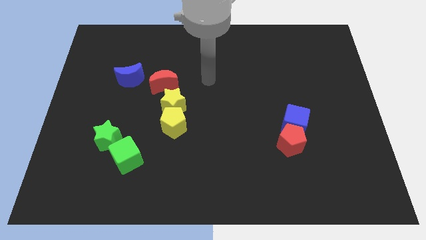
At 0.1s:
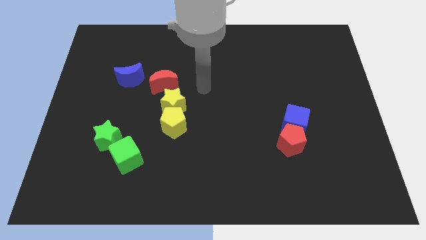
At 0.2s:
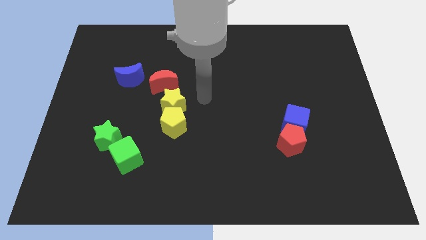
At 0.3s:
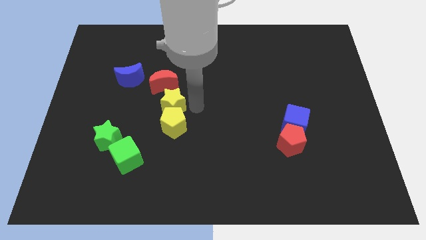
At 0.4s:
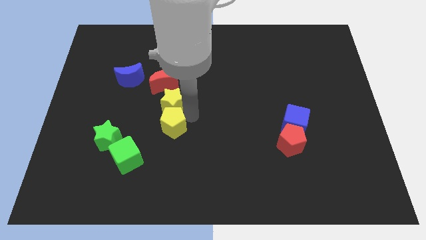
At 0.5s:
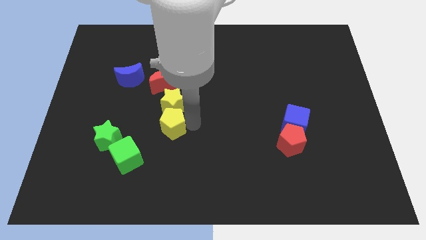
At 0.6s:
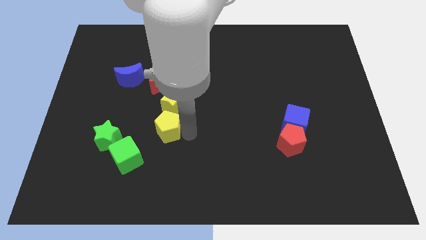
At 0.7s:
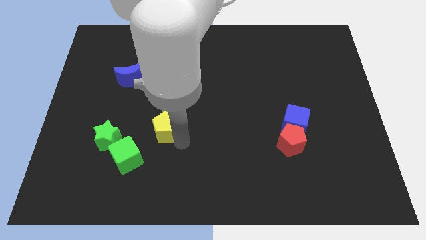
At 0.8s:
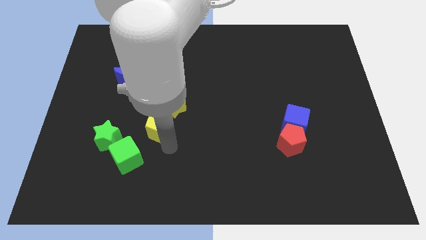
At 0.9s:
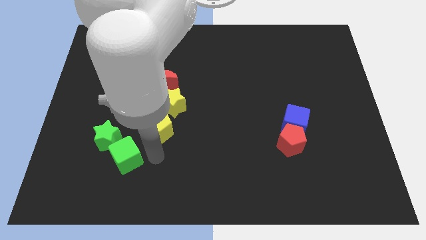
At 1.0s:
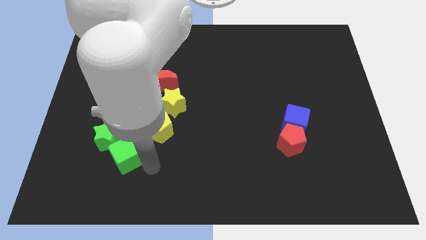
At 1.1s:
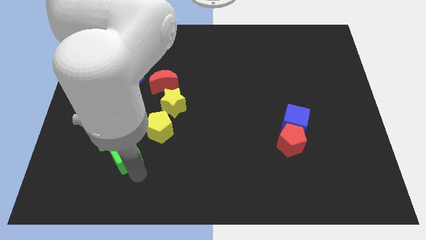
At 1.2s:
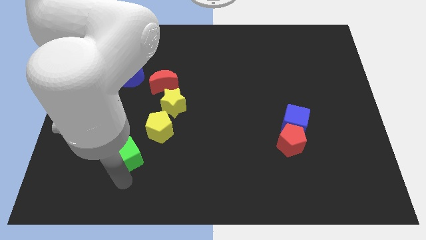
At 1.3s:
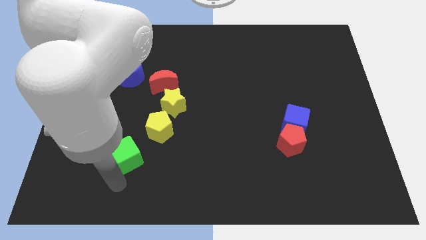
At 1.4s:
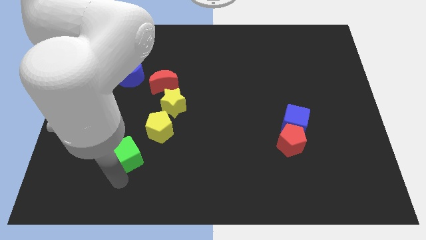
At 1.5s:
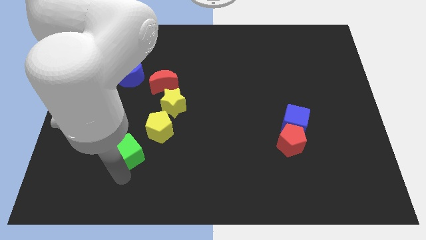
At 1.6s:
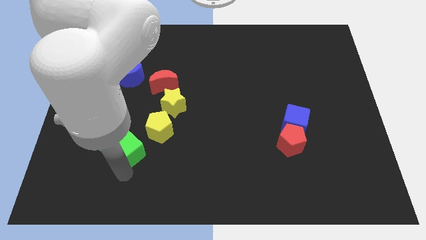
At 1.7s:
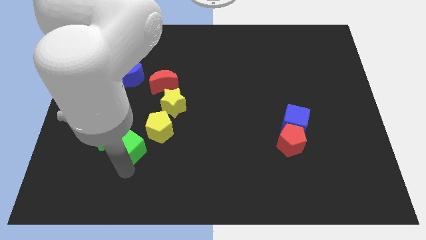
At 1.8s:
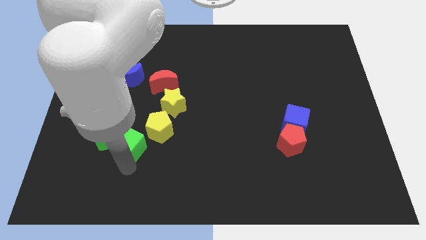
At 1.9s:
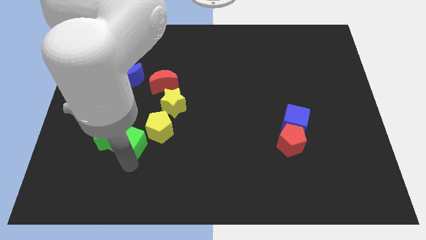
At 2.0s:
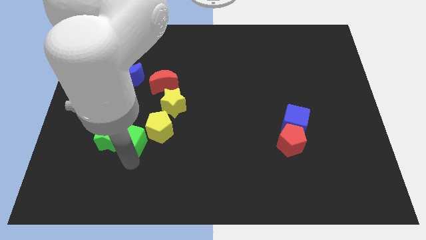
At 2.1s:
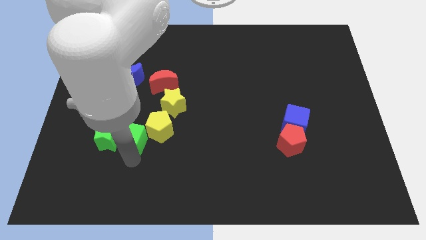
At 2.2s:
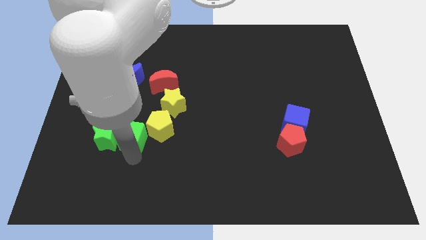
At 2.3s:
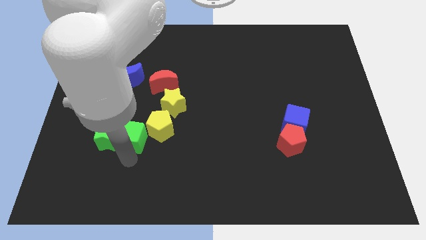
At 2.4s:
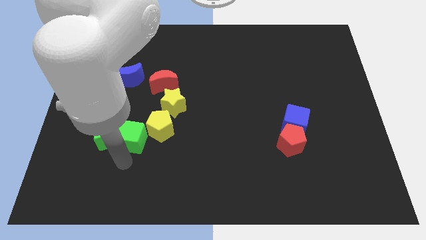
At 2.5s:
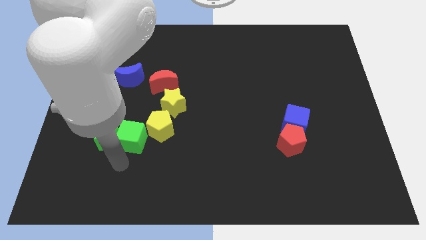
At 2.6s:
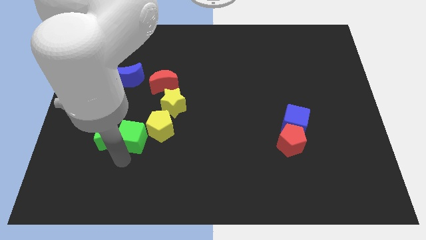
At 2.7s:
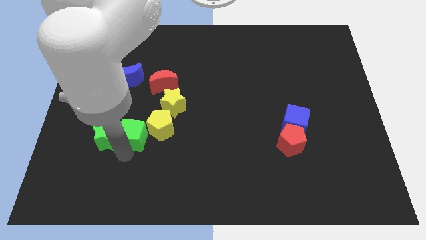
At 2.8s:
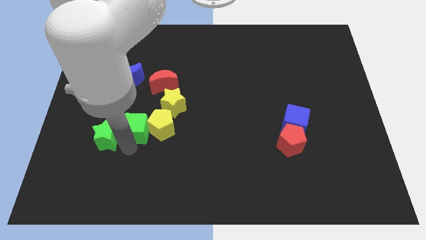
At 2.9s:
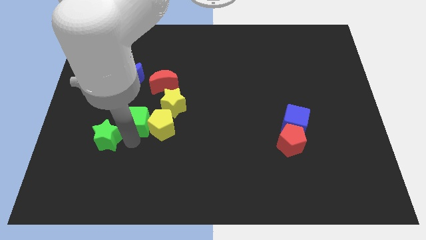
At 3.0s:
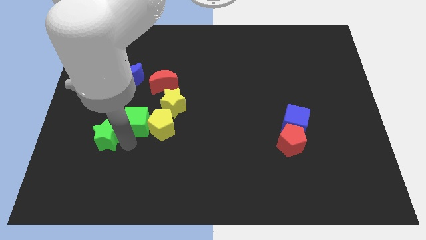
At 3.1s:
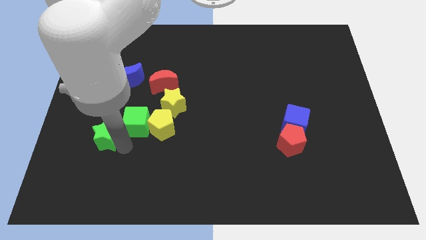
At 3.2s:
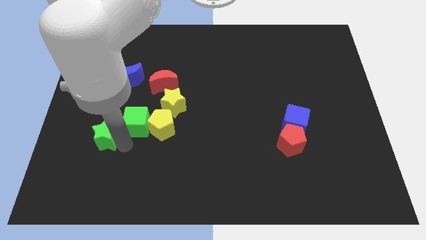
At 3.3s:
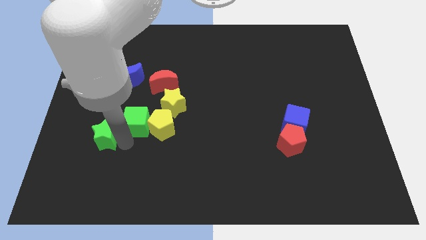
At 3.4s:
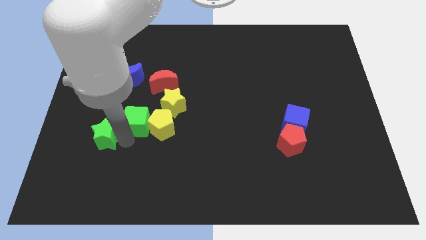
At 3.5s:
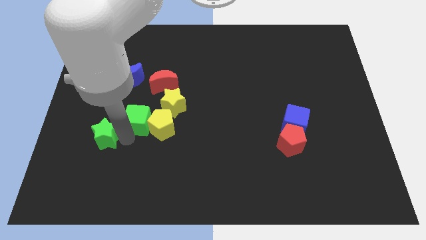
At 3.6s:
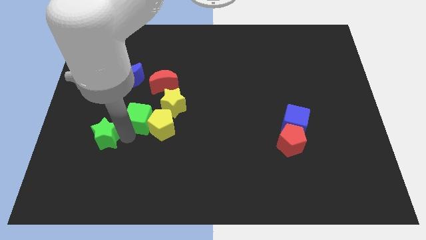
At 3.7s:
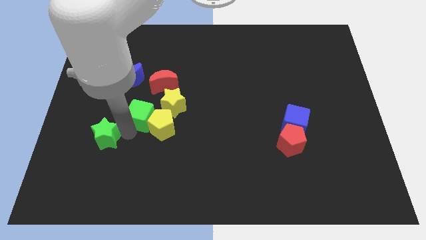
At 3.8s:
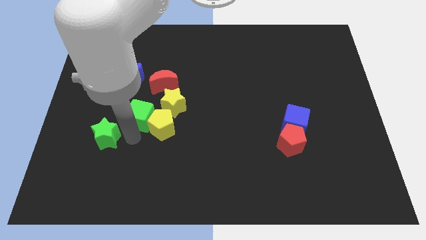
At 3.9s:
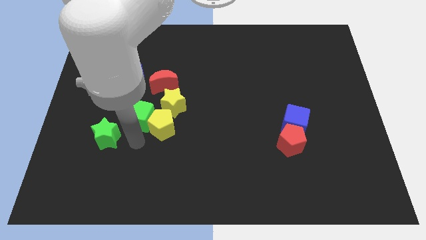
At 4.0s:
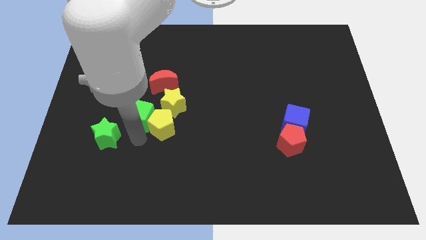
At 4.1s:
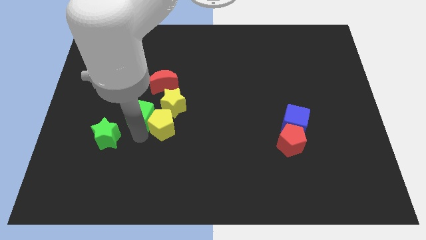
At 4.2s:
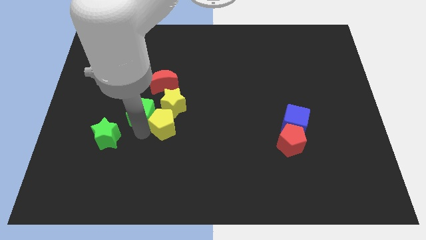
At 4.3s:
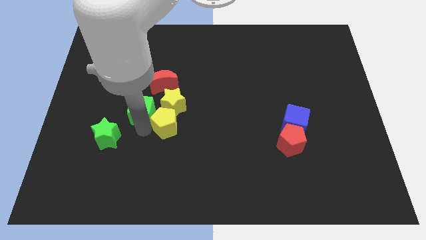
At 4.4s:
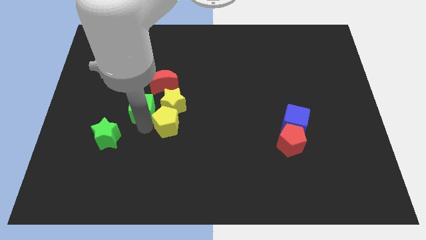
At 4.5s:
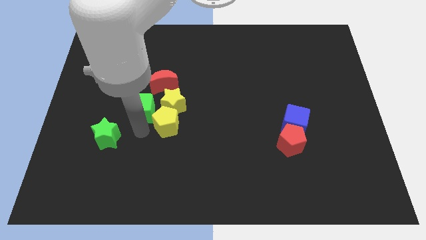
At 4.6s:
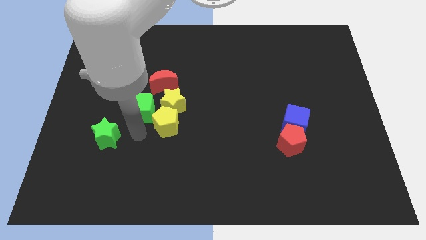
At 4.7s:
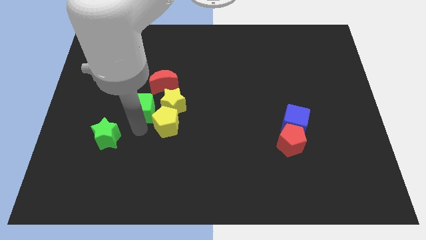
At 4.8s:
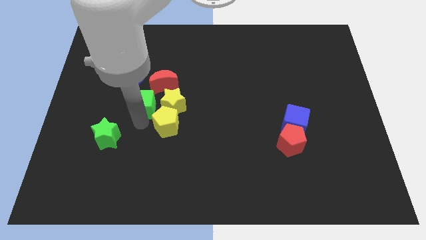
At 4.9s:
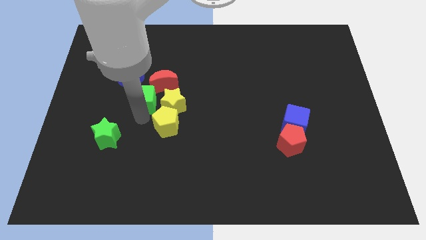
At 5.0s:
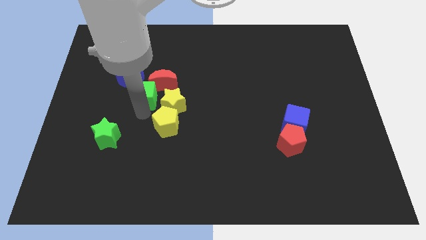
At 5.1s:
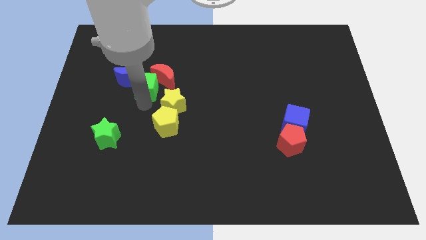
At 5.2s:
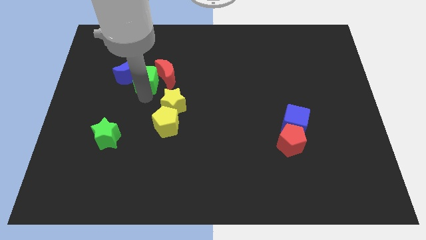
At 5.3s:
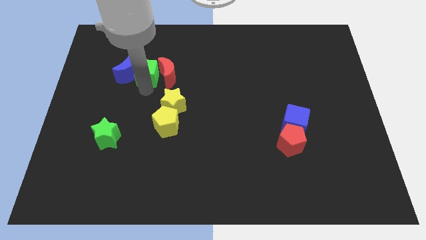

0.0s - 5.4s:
slide the green cube to the top right of the blue moon

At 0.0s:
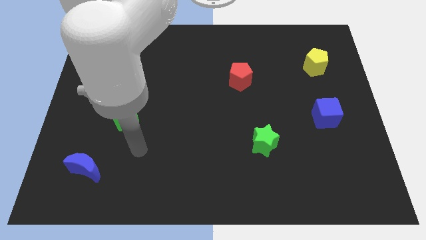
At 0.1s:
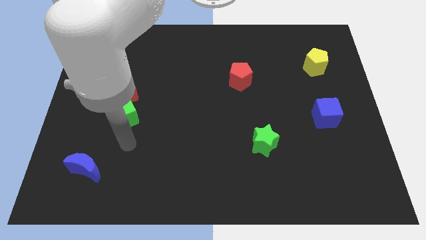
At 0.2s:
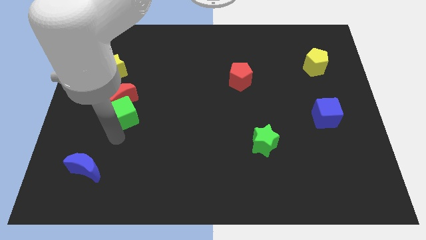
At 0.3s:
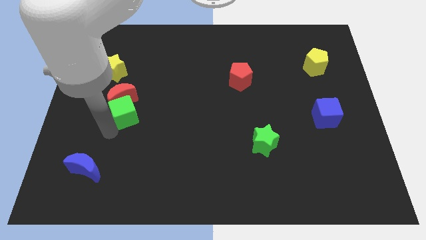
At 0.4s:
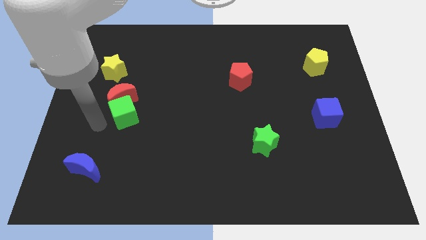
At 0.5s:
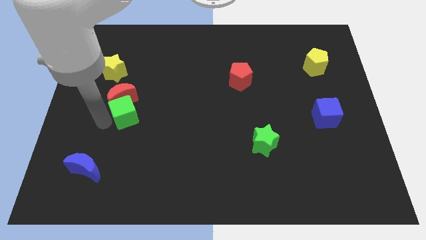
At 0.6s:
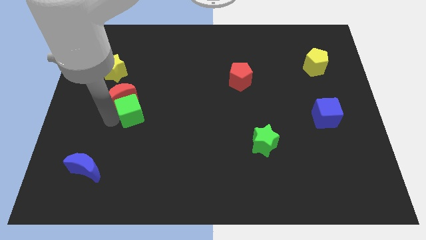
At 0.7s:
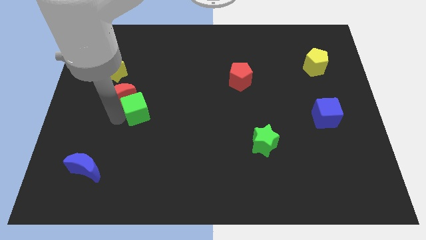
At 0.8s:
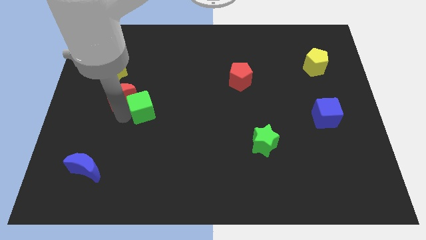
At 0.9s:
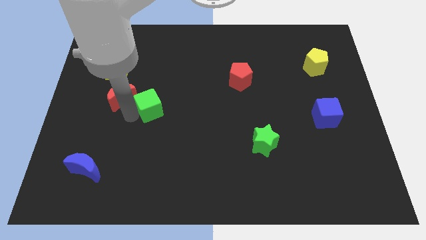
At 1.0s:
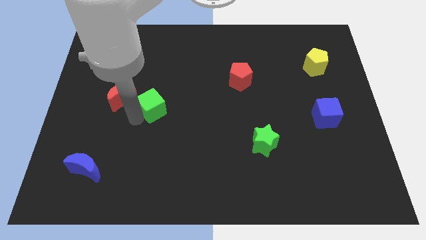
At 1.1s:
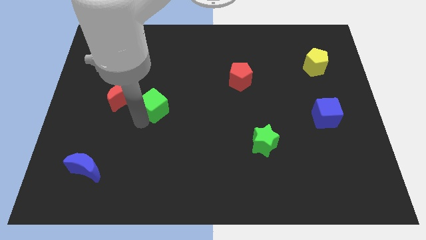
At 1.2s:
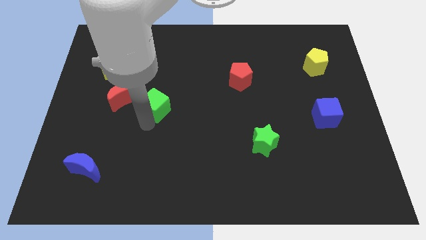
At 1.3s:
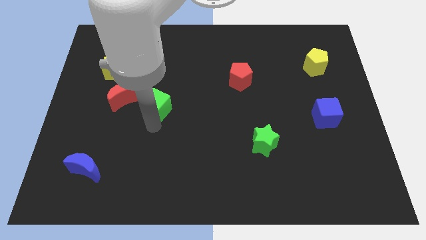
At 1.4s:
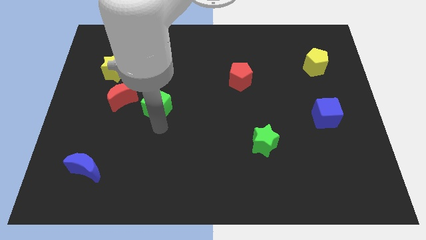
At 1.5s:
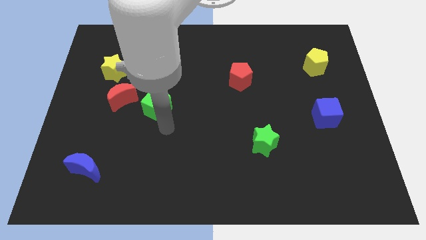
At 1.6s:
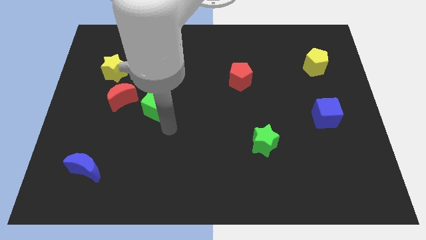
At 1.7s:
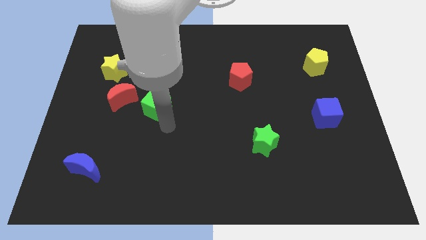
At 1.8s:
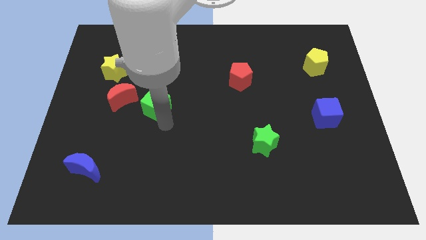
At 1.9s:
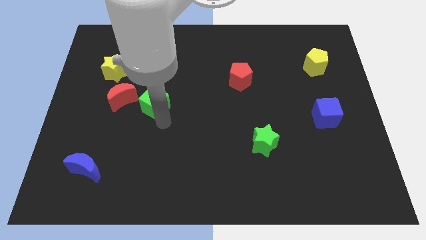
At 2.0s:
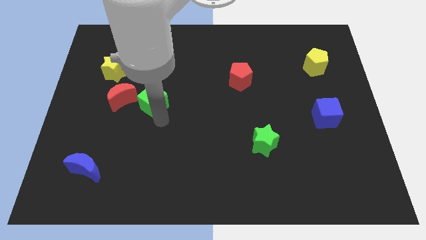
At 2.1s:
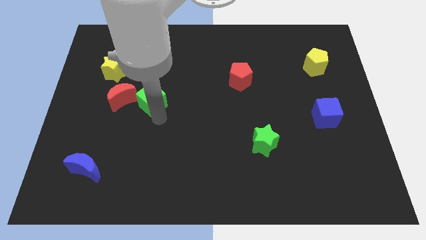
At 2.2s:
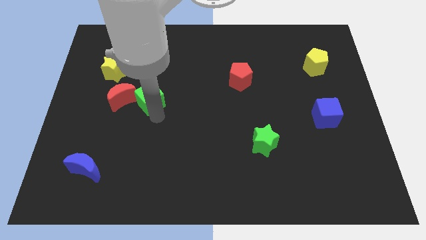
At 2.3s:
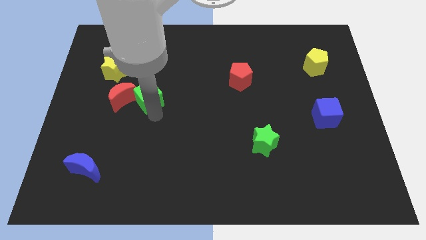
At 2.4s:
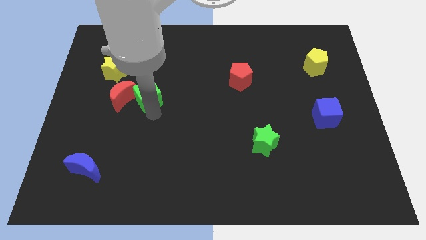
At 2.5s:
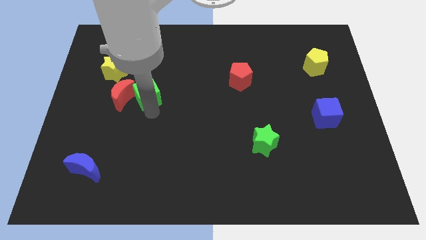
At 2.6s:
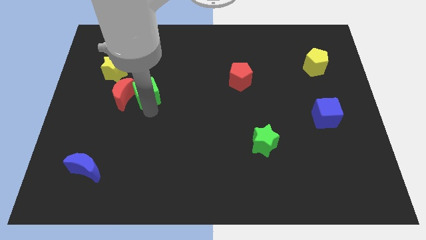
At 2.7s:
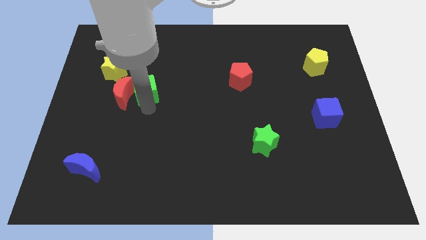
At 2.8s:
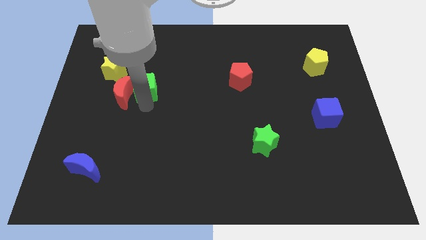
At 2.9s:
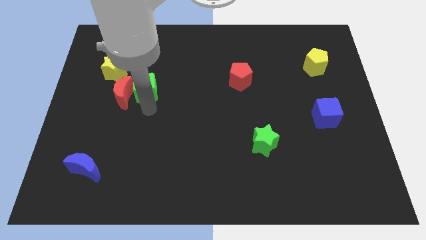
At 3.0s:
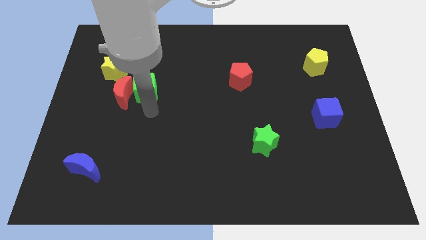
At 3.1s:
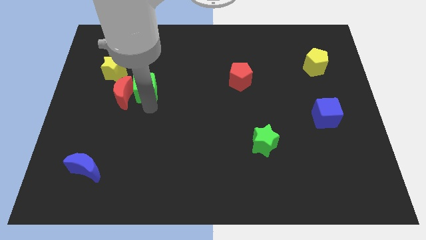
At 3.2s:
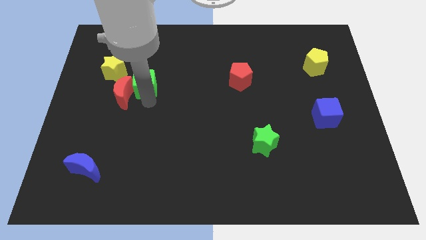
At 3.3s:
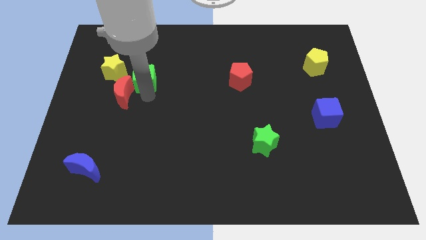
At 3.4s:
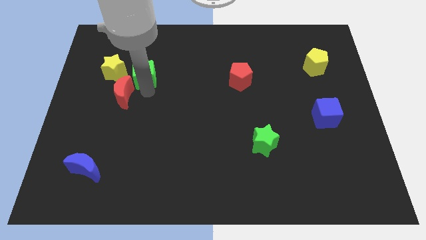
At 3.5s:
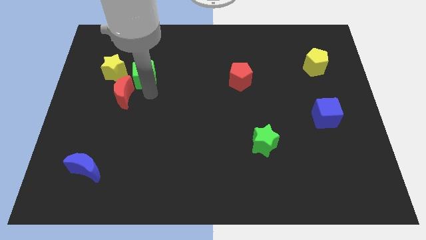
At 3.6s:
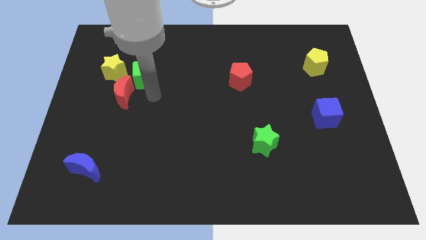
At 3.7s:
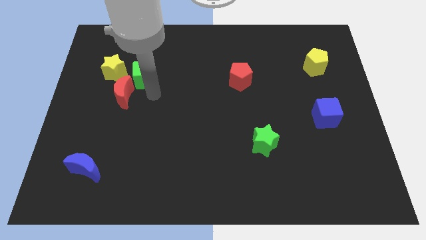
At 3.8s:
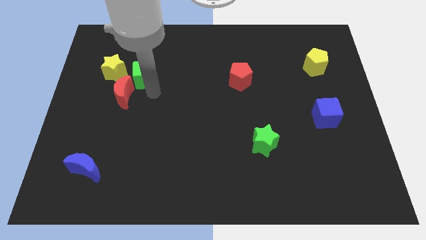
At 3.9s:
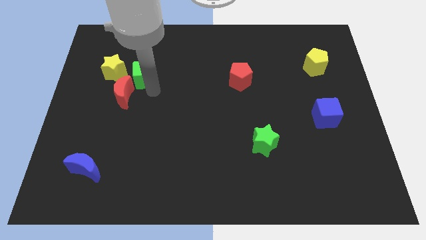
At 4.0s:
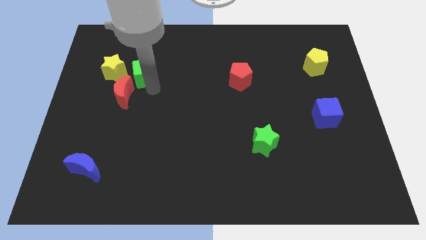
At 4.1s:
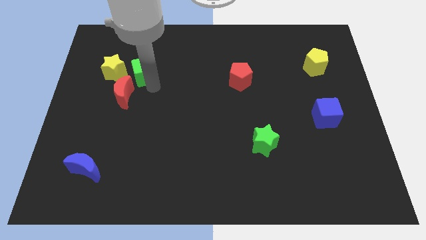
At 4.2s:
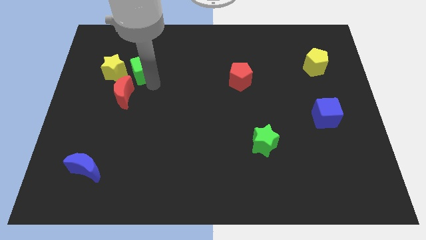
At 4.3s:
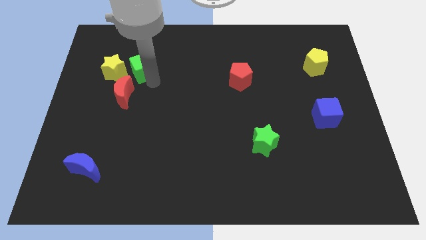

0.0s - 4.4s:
move the green cube to the top right side of the yellow star
